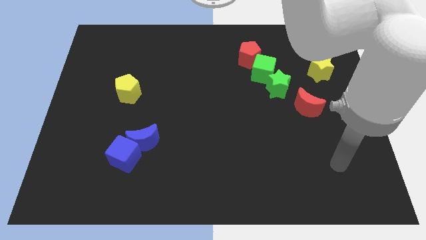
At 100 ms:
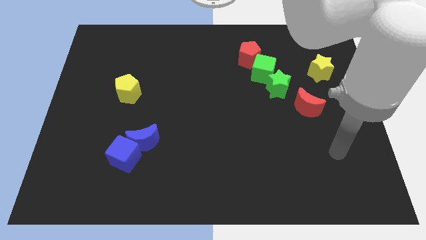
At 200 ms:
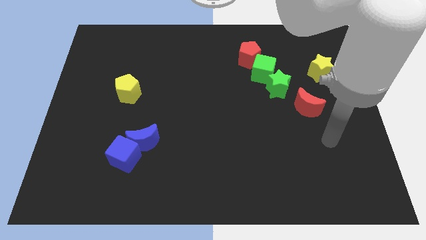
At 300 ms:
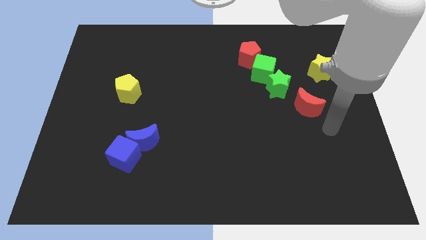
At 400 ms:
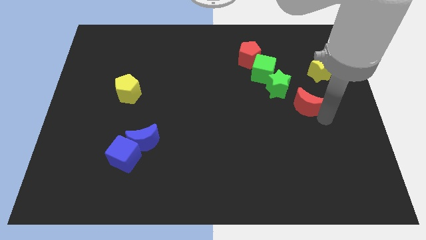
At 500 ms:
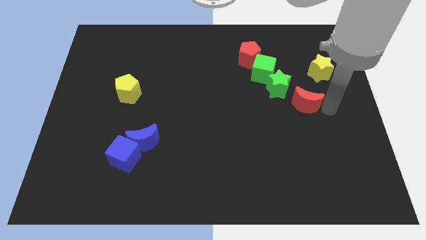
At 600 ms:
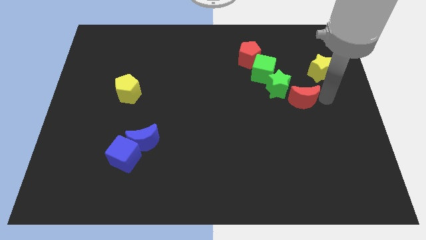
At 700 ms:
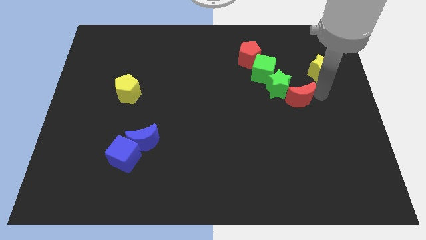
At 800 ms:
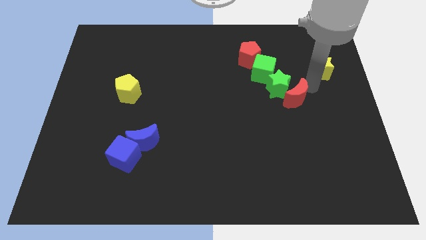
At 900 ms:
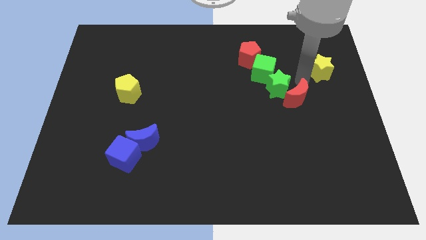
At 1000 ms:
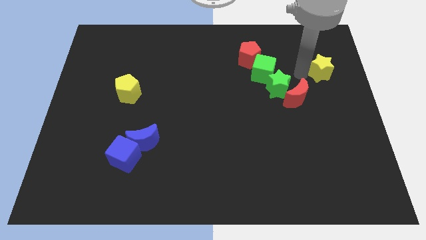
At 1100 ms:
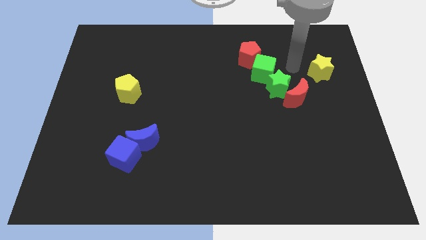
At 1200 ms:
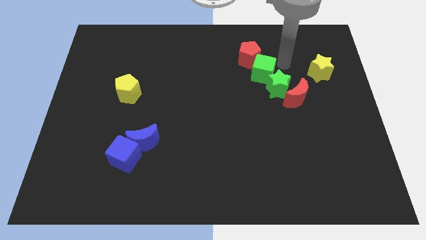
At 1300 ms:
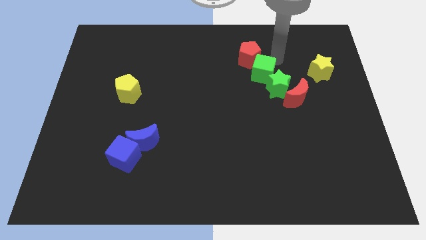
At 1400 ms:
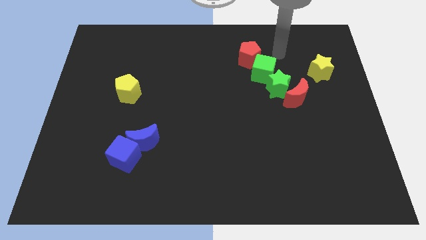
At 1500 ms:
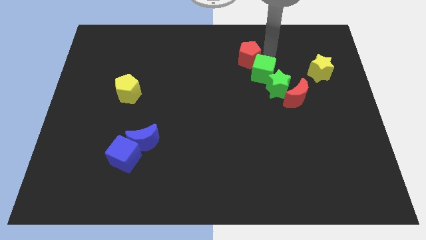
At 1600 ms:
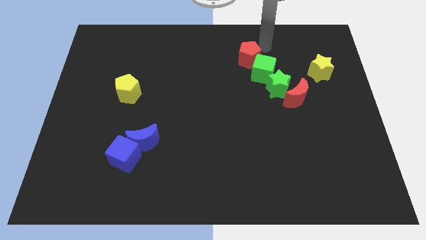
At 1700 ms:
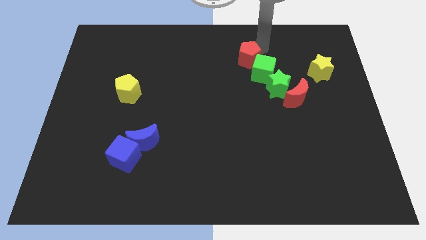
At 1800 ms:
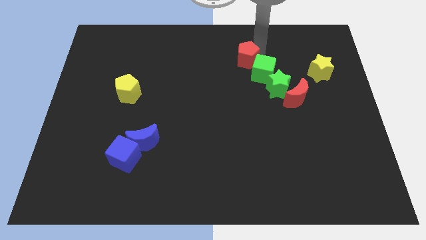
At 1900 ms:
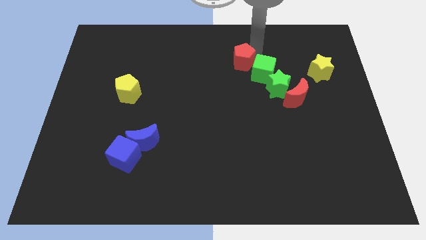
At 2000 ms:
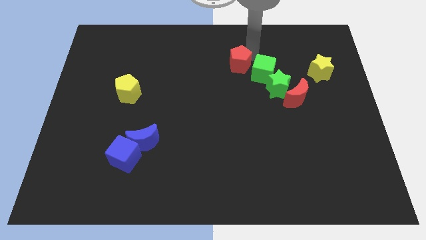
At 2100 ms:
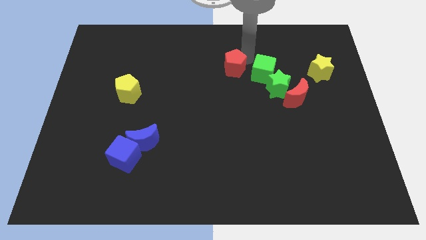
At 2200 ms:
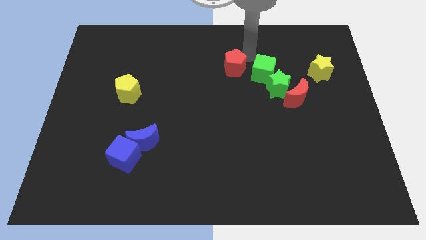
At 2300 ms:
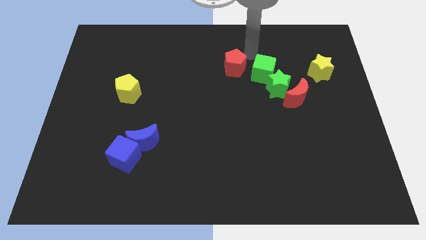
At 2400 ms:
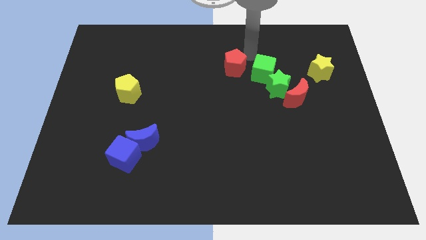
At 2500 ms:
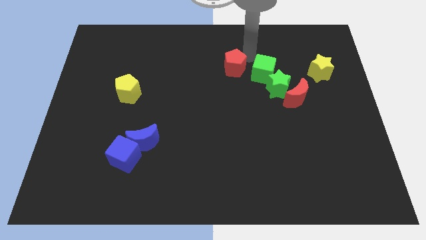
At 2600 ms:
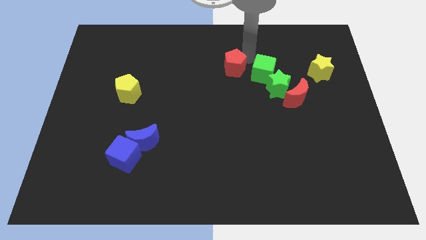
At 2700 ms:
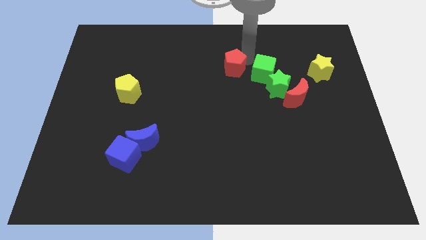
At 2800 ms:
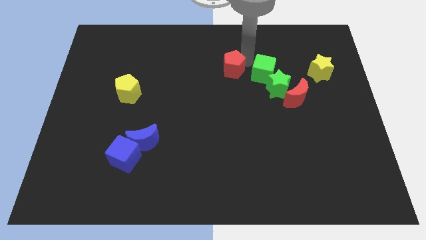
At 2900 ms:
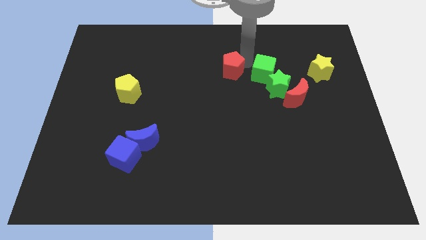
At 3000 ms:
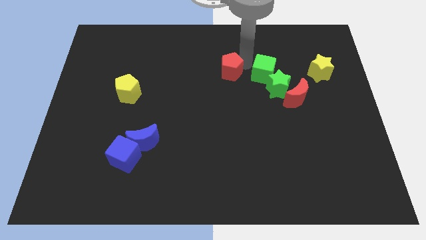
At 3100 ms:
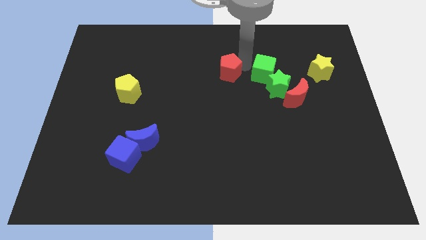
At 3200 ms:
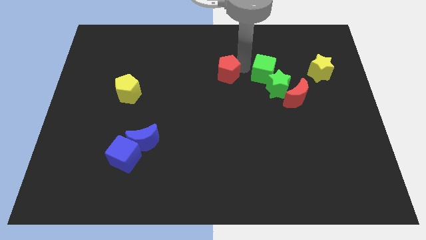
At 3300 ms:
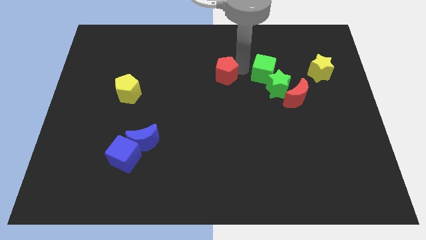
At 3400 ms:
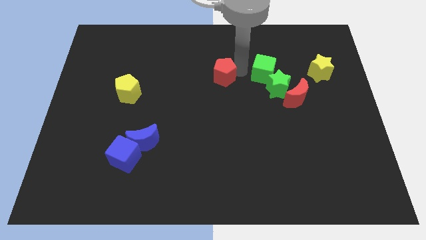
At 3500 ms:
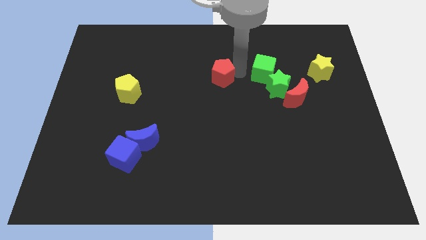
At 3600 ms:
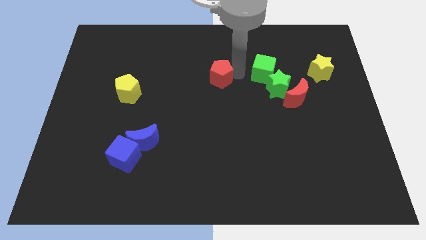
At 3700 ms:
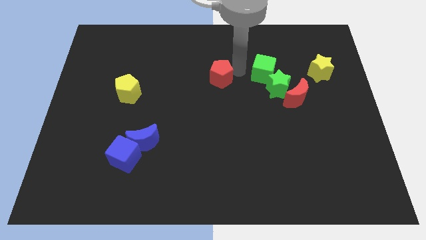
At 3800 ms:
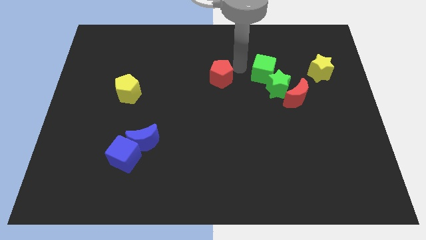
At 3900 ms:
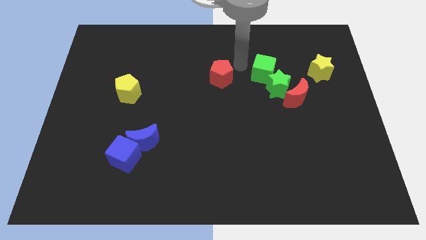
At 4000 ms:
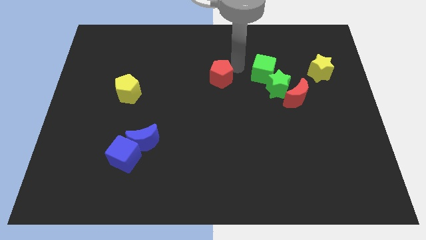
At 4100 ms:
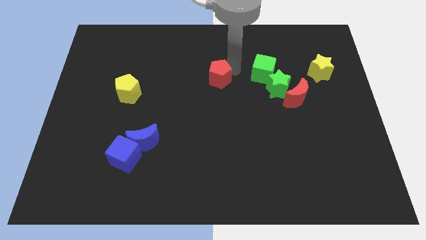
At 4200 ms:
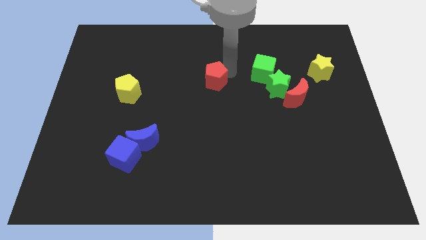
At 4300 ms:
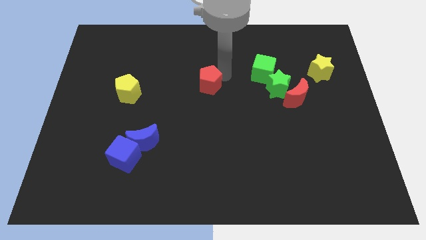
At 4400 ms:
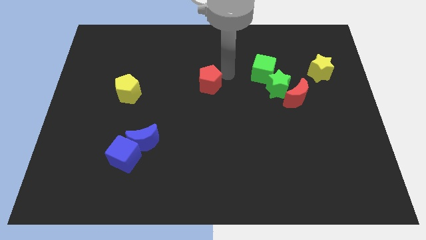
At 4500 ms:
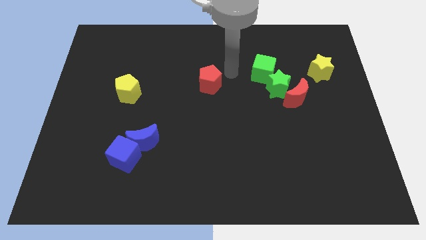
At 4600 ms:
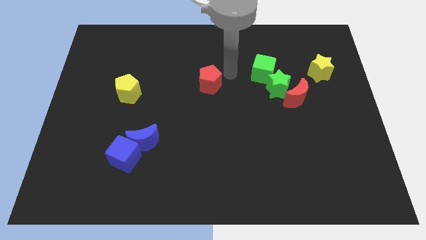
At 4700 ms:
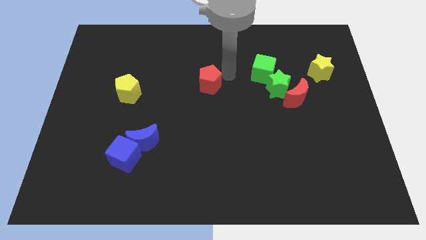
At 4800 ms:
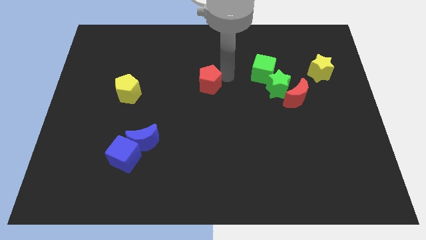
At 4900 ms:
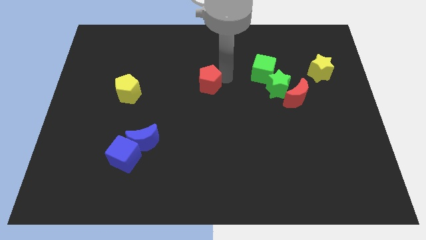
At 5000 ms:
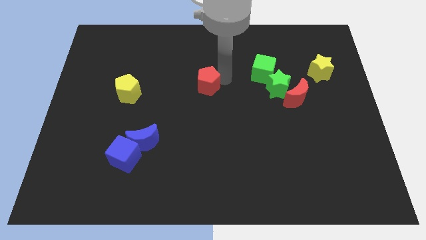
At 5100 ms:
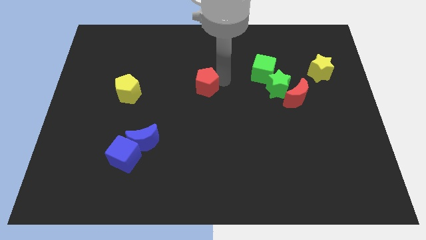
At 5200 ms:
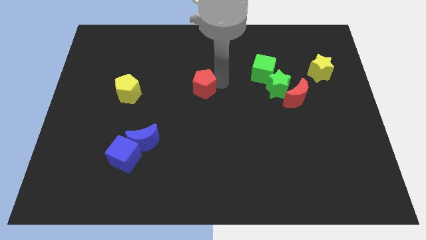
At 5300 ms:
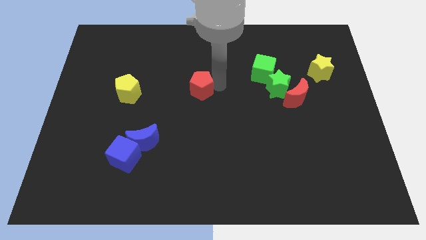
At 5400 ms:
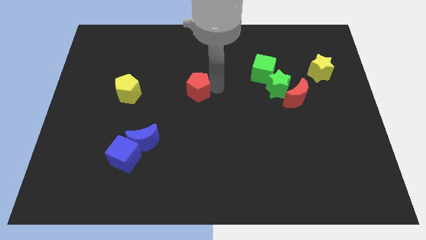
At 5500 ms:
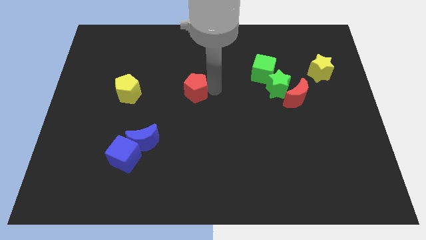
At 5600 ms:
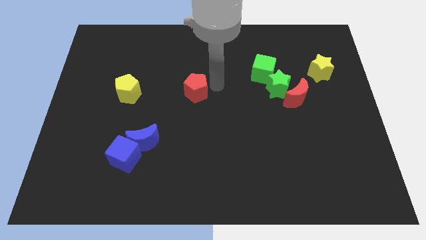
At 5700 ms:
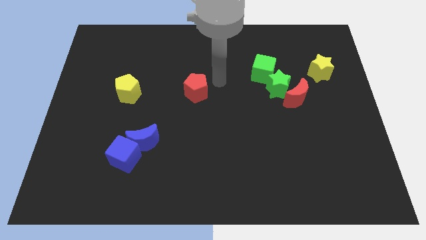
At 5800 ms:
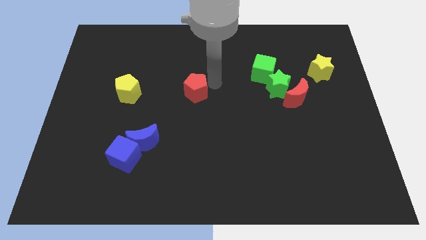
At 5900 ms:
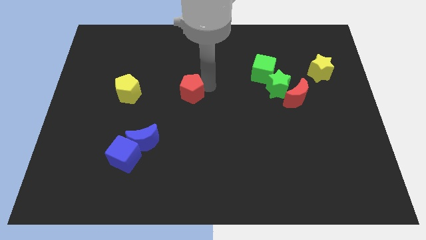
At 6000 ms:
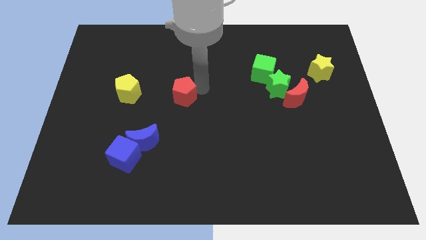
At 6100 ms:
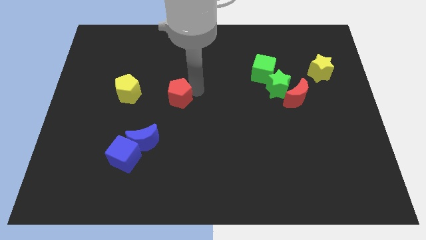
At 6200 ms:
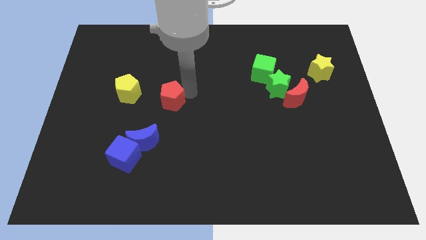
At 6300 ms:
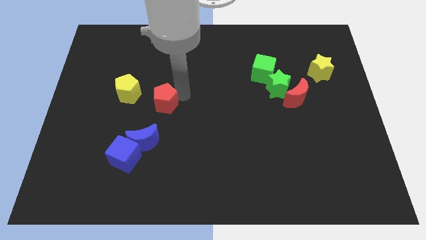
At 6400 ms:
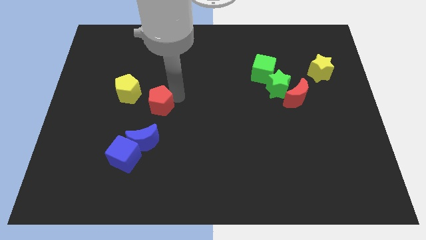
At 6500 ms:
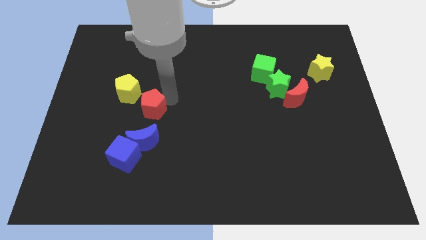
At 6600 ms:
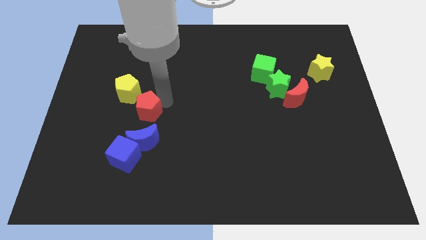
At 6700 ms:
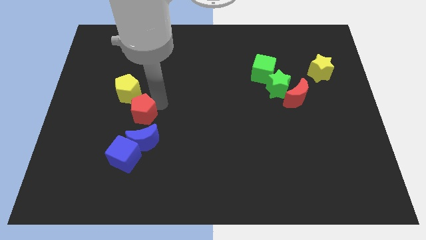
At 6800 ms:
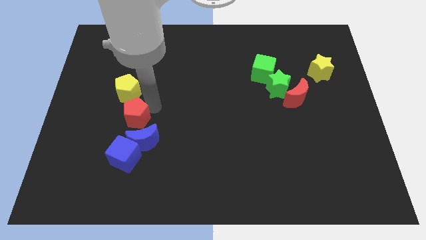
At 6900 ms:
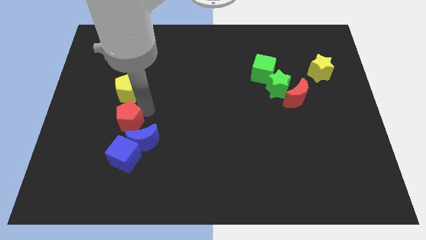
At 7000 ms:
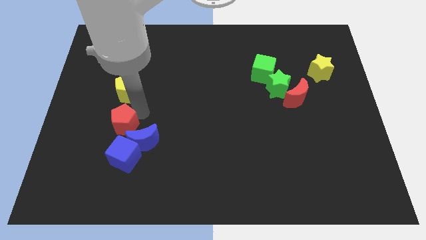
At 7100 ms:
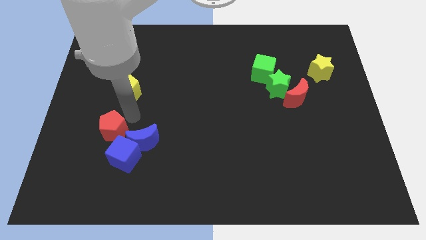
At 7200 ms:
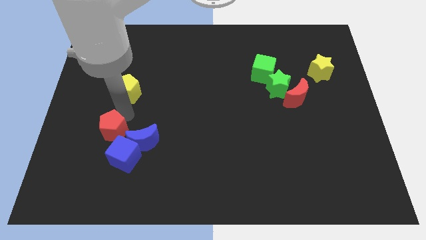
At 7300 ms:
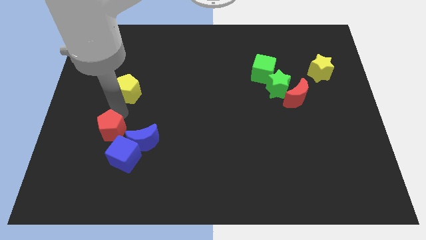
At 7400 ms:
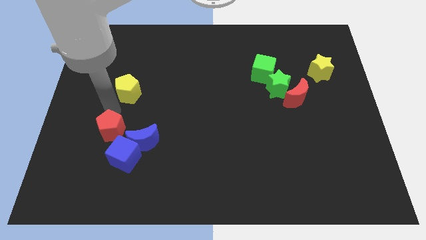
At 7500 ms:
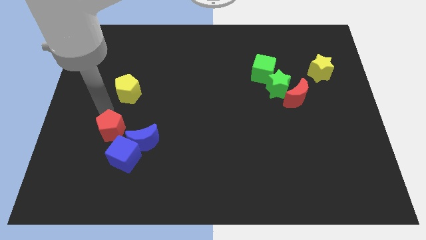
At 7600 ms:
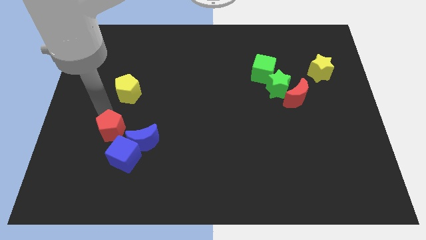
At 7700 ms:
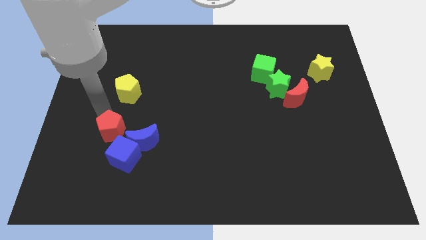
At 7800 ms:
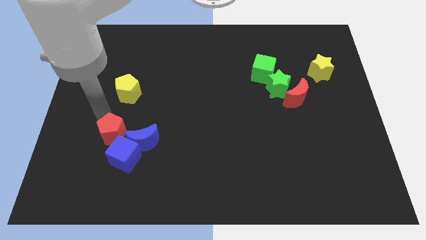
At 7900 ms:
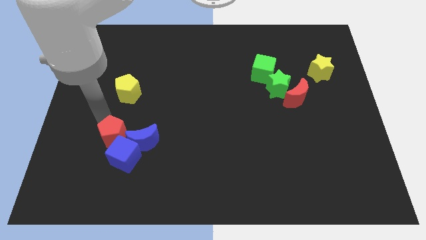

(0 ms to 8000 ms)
put the red pentagon to the blue cube
